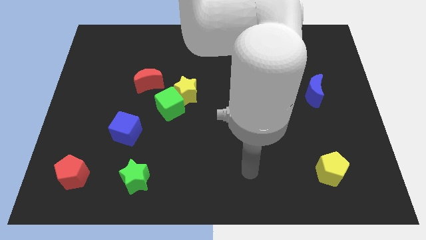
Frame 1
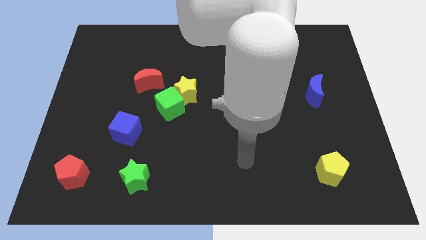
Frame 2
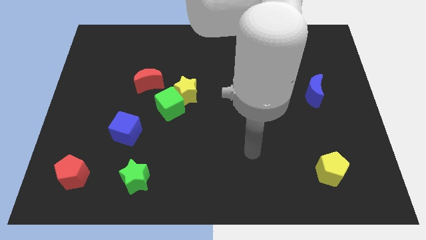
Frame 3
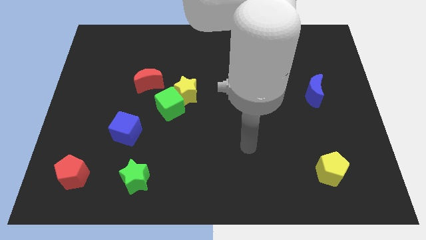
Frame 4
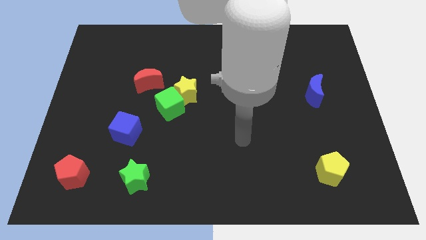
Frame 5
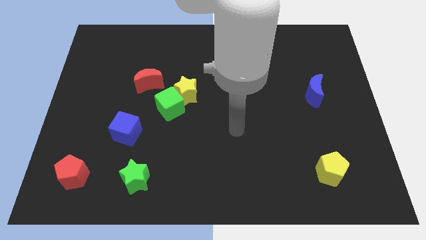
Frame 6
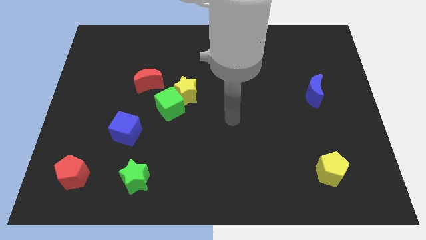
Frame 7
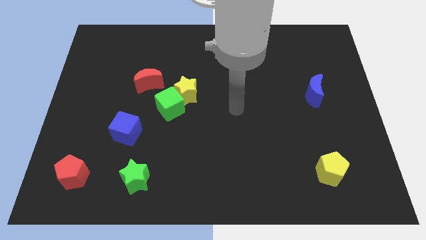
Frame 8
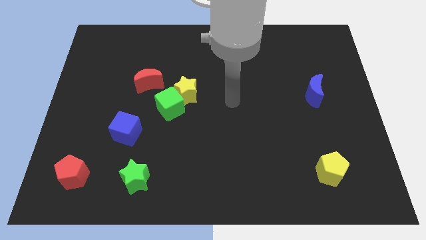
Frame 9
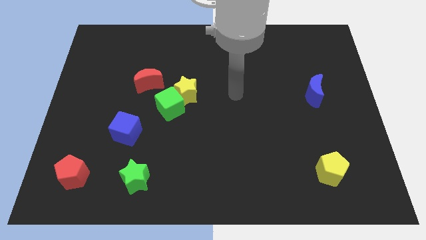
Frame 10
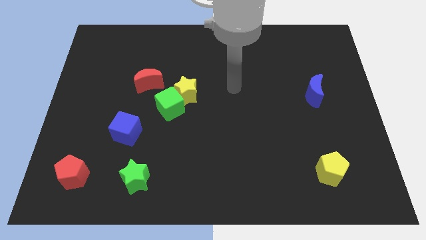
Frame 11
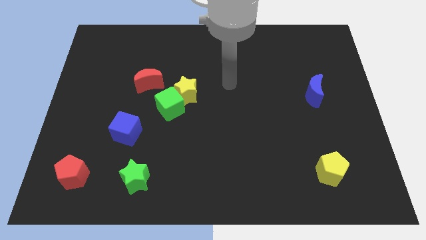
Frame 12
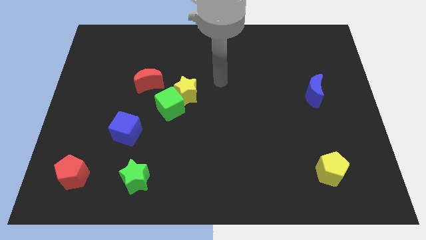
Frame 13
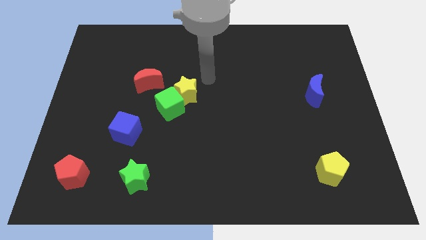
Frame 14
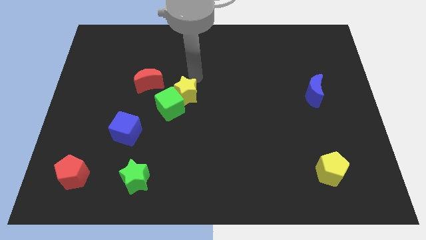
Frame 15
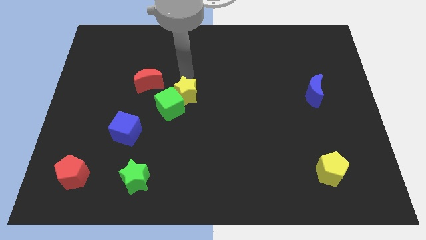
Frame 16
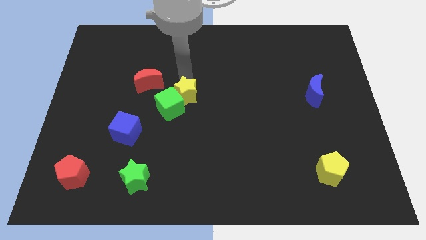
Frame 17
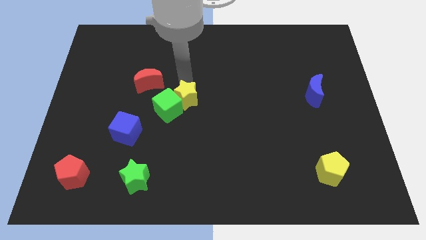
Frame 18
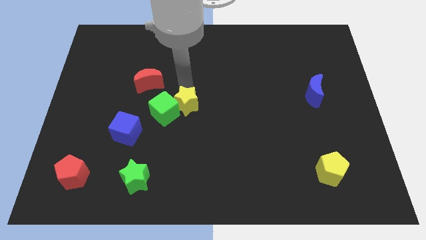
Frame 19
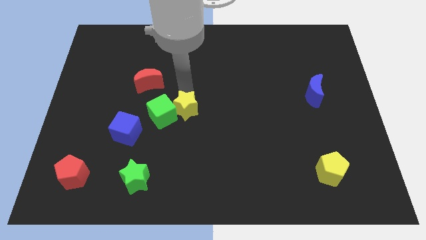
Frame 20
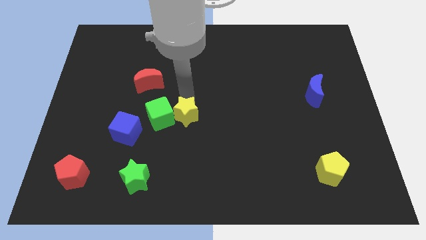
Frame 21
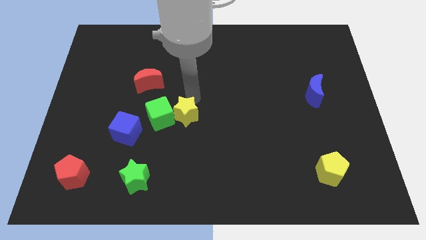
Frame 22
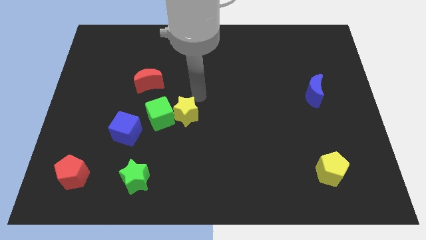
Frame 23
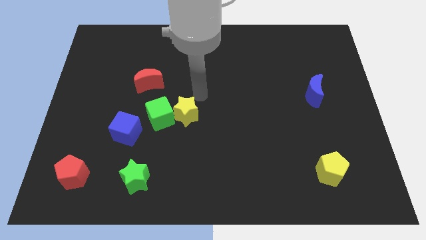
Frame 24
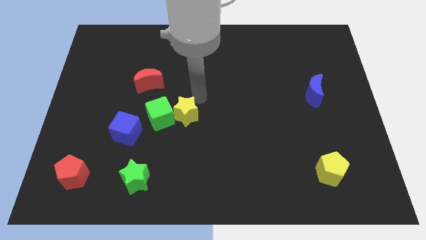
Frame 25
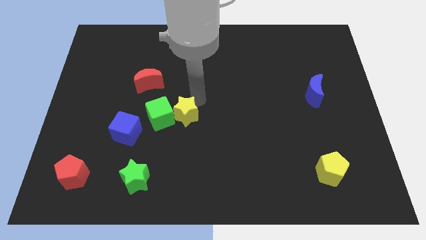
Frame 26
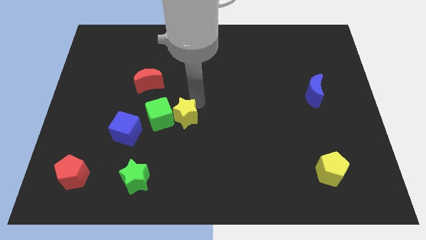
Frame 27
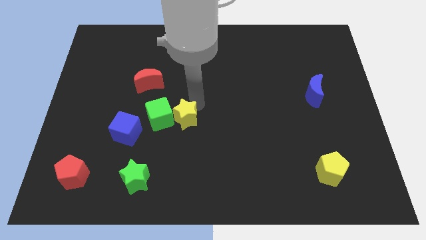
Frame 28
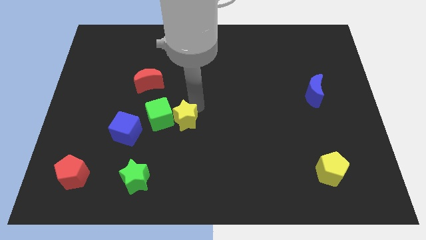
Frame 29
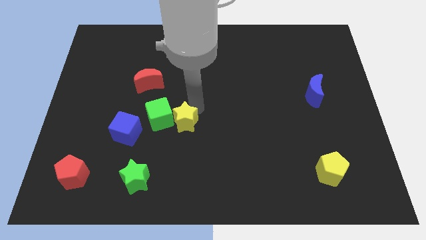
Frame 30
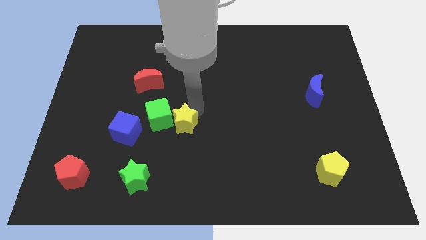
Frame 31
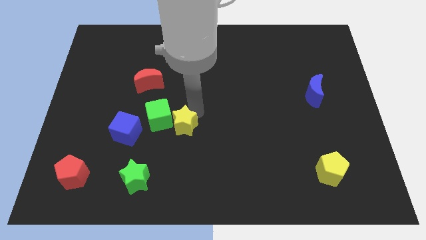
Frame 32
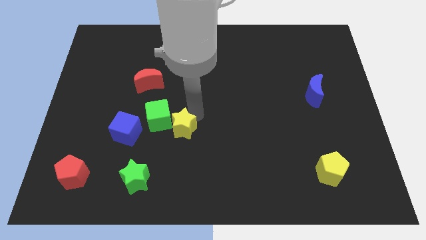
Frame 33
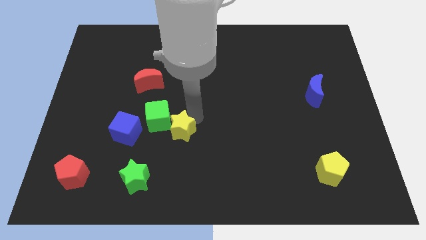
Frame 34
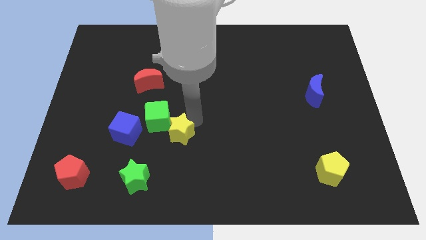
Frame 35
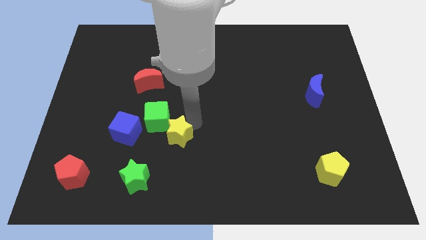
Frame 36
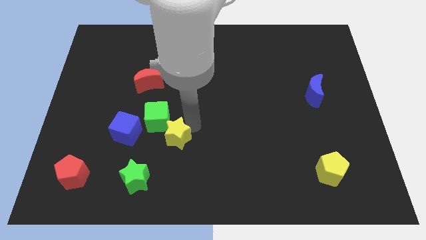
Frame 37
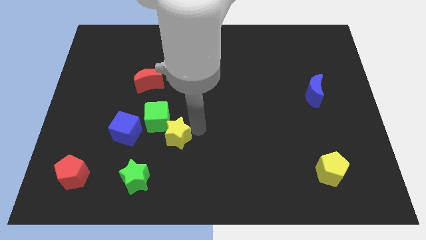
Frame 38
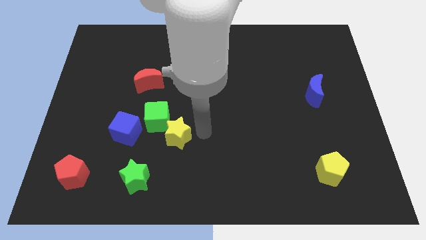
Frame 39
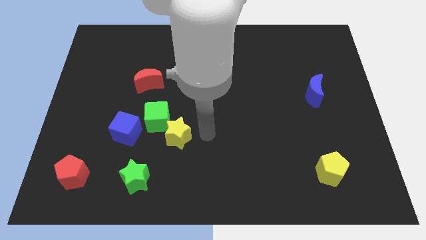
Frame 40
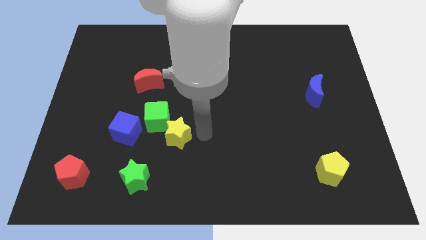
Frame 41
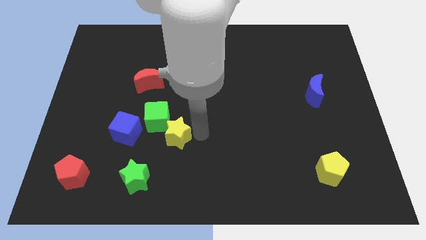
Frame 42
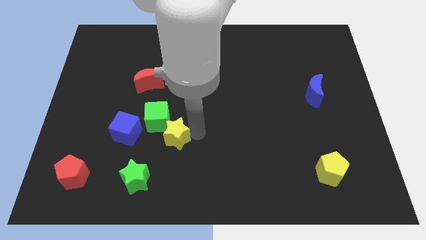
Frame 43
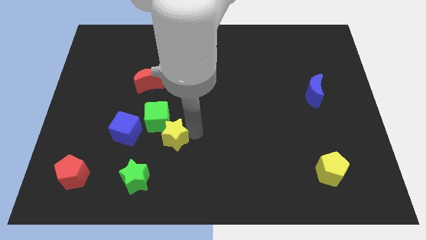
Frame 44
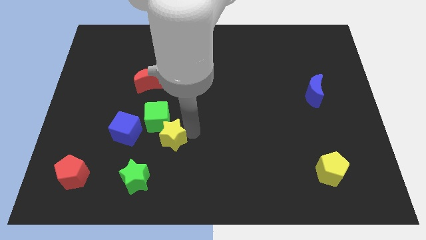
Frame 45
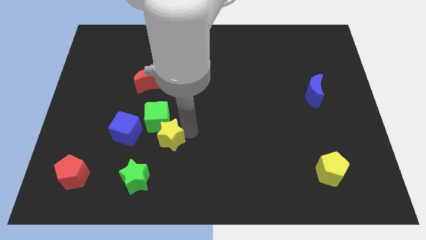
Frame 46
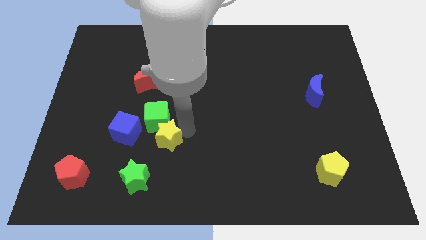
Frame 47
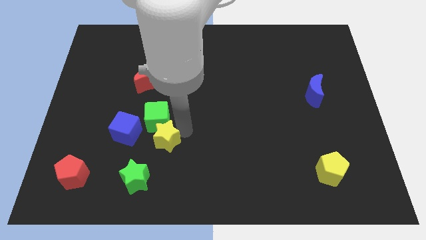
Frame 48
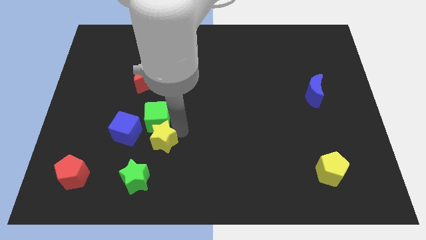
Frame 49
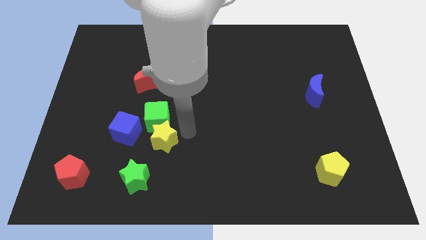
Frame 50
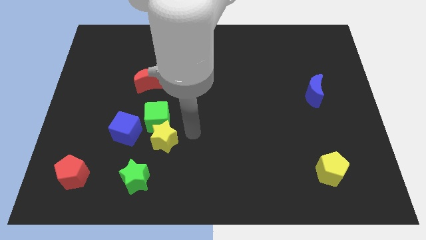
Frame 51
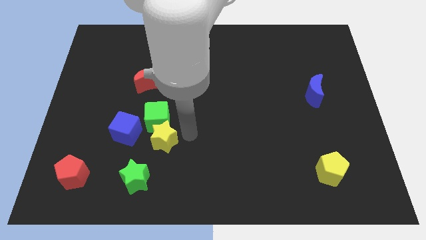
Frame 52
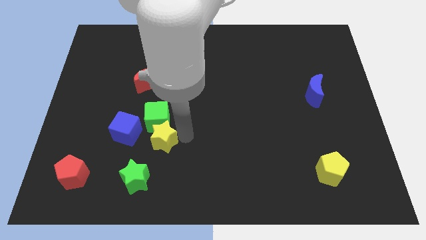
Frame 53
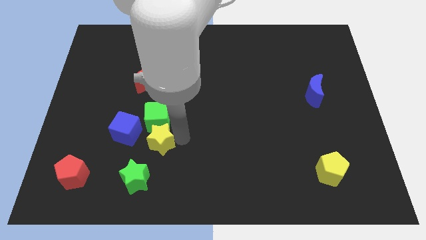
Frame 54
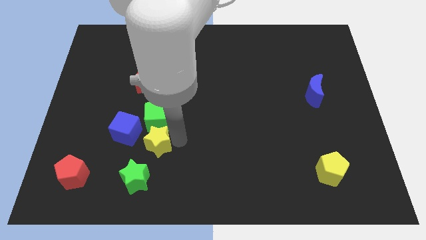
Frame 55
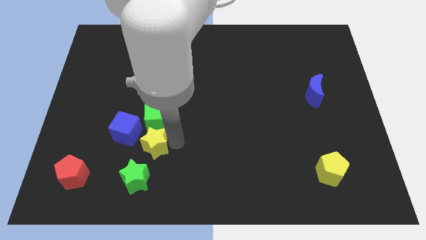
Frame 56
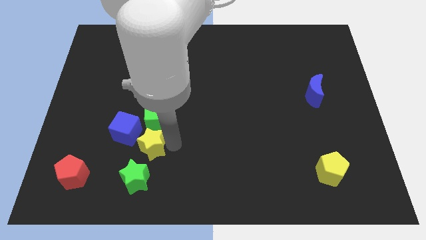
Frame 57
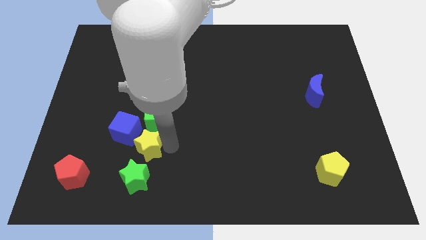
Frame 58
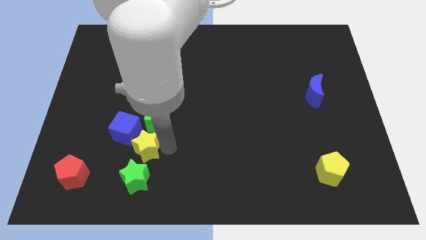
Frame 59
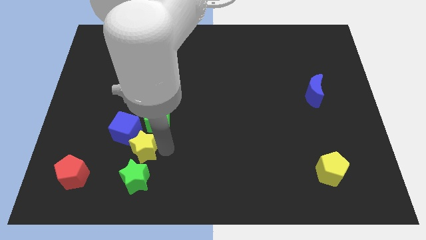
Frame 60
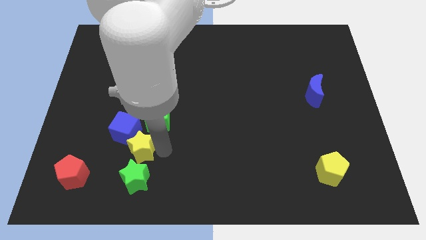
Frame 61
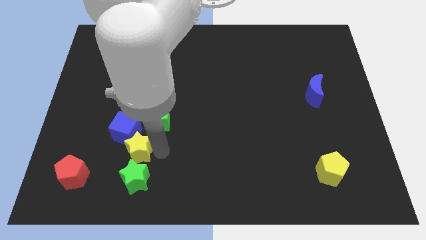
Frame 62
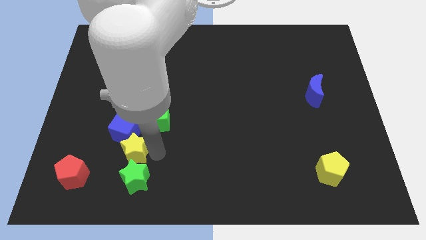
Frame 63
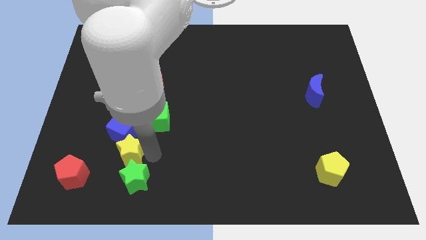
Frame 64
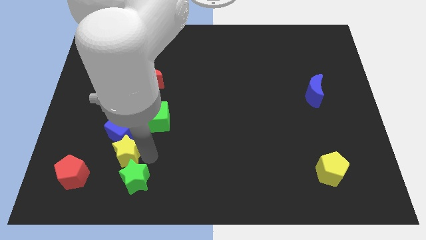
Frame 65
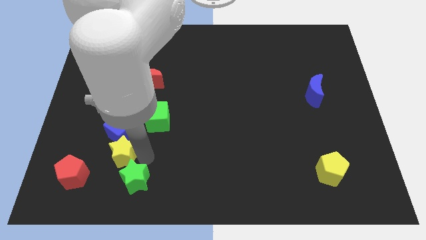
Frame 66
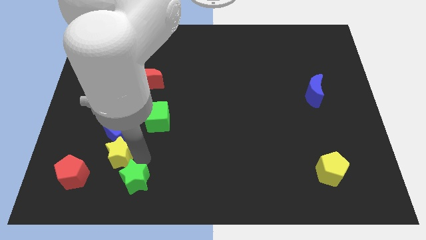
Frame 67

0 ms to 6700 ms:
slide the yellow star diagonally down and to the left of the blue cube
